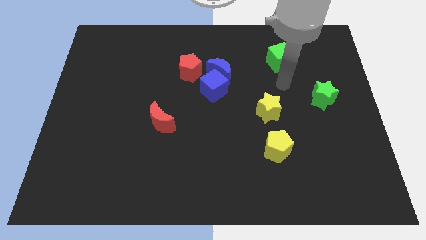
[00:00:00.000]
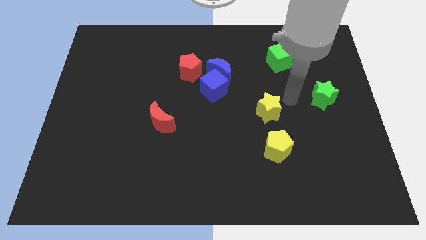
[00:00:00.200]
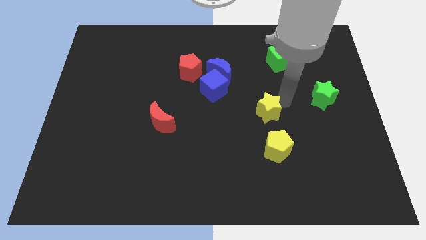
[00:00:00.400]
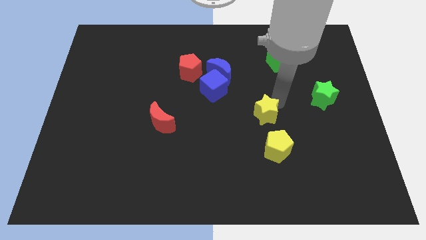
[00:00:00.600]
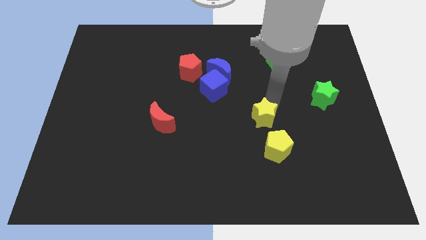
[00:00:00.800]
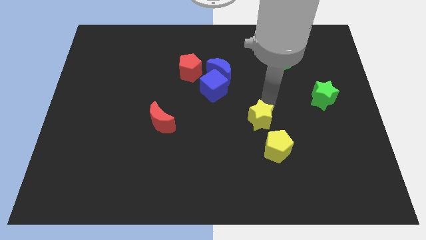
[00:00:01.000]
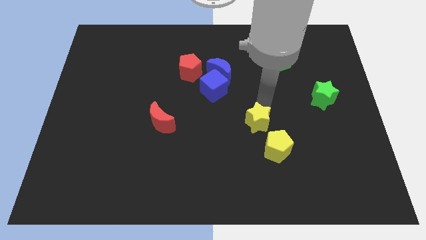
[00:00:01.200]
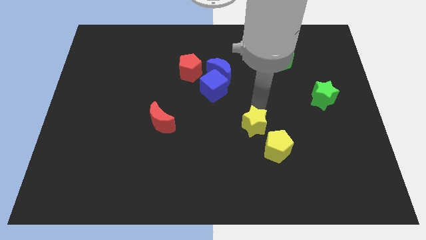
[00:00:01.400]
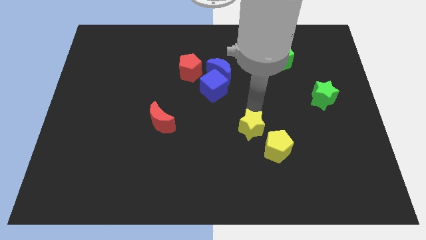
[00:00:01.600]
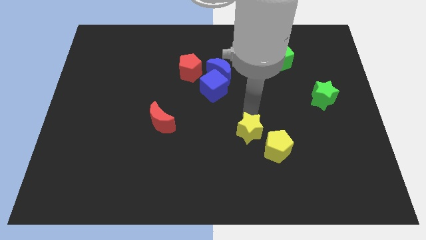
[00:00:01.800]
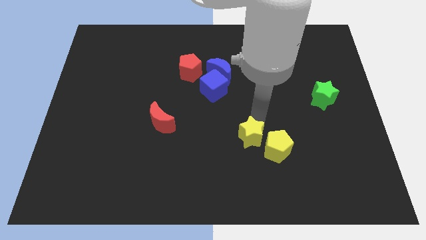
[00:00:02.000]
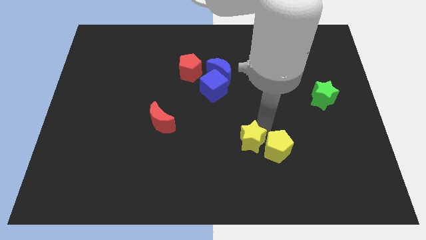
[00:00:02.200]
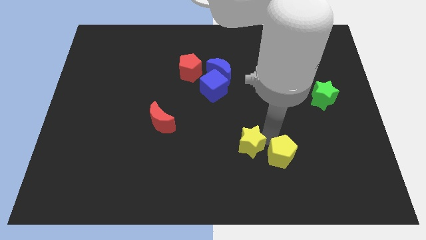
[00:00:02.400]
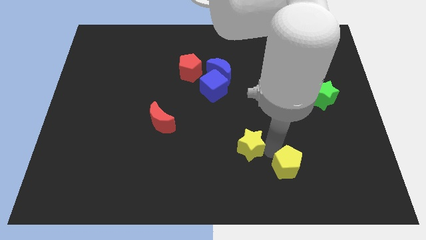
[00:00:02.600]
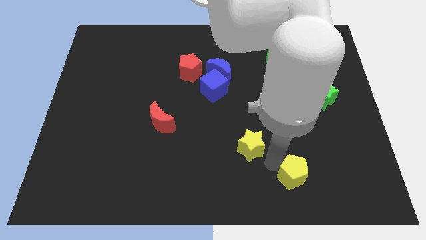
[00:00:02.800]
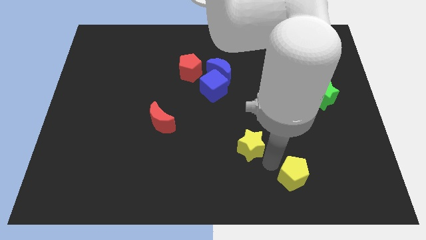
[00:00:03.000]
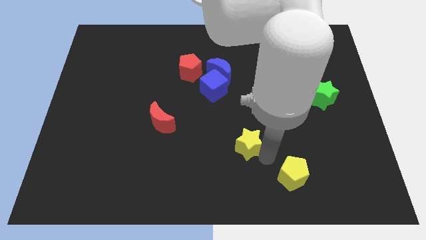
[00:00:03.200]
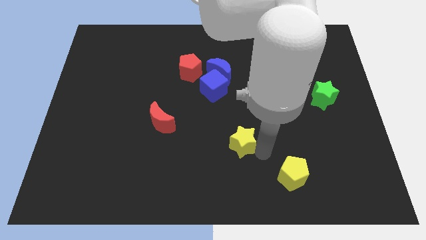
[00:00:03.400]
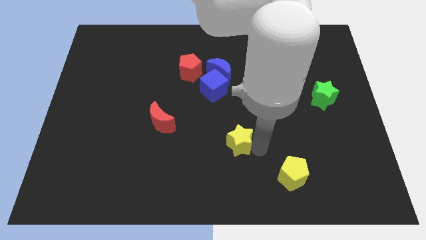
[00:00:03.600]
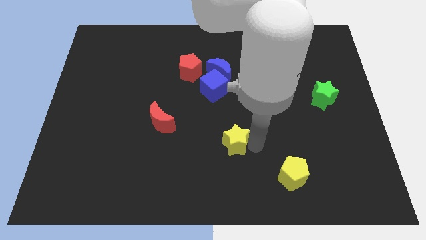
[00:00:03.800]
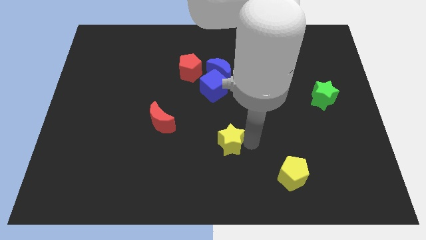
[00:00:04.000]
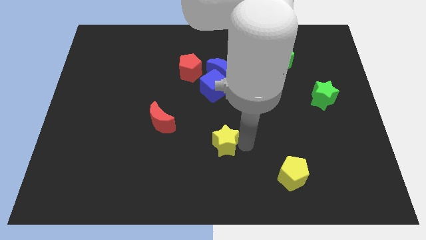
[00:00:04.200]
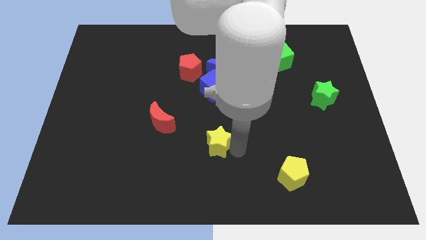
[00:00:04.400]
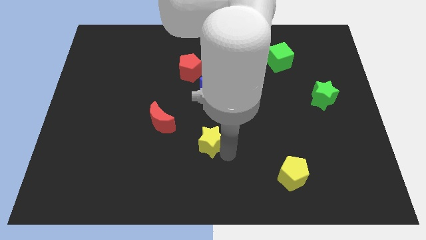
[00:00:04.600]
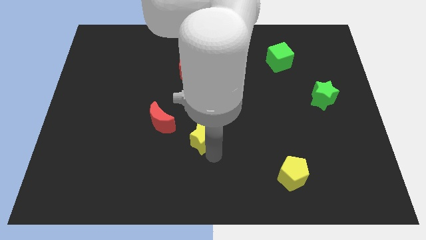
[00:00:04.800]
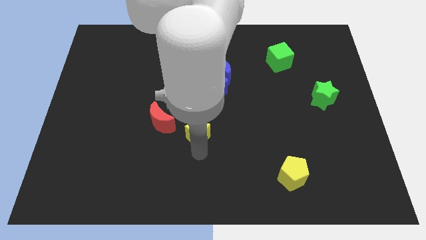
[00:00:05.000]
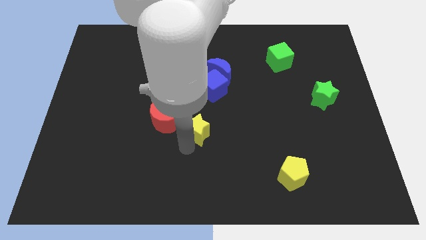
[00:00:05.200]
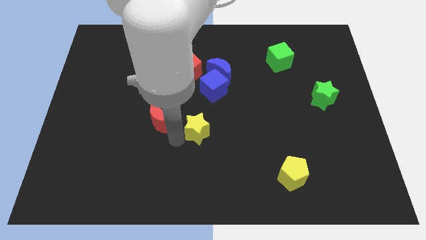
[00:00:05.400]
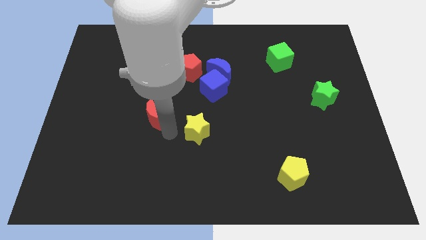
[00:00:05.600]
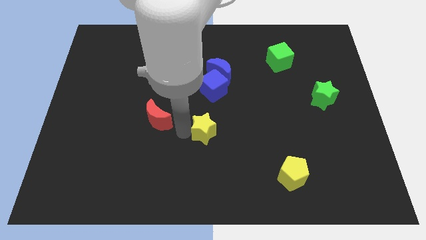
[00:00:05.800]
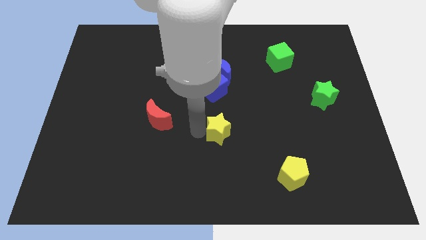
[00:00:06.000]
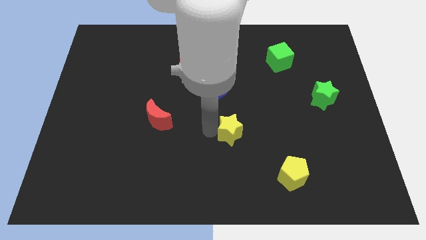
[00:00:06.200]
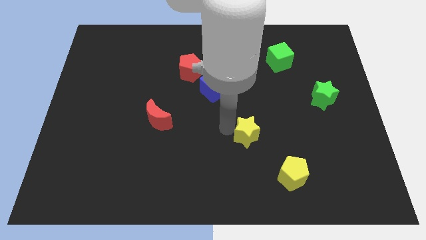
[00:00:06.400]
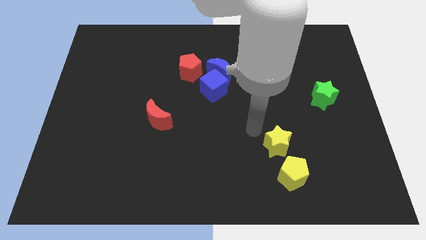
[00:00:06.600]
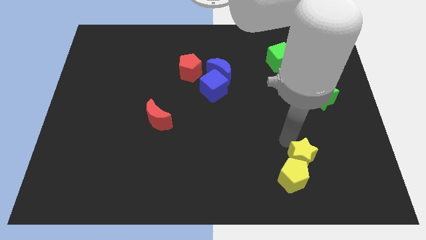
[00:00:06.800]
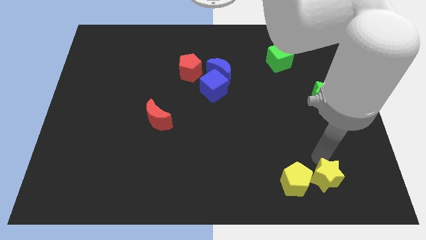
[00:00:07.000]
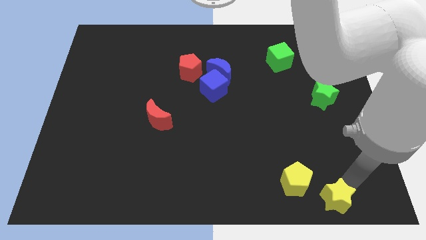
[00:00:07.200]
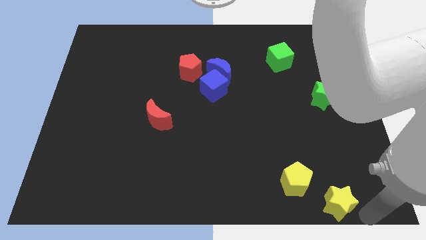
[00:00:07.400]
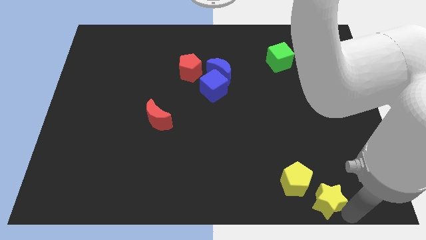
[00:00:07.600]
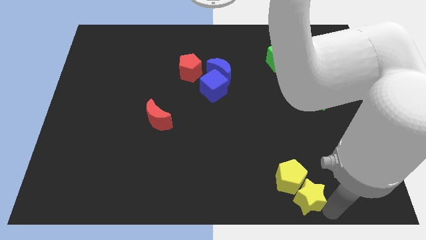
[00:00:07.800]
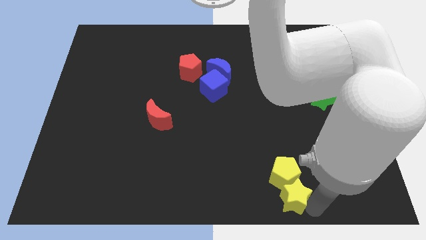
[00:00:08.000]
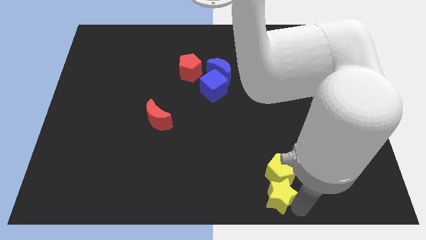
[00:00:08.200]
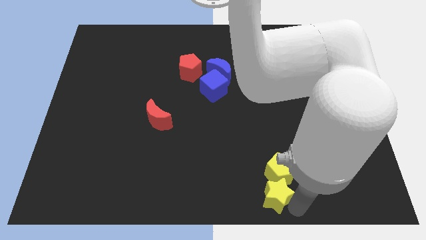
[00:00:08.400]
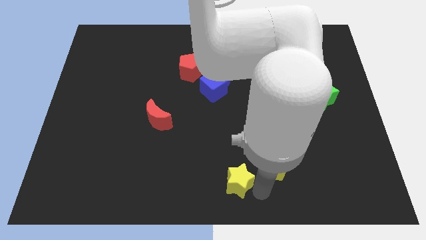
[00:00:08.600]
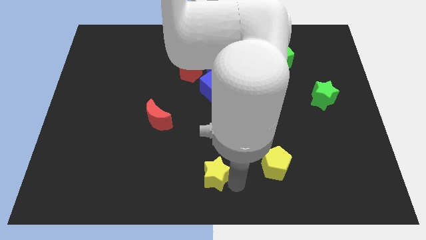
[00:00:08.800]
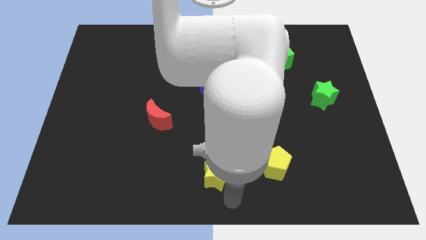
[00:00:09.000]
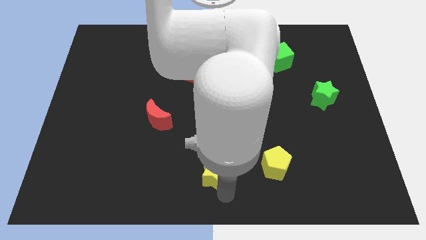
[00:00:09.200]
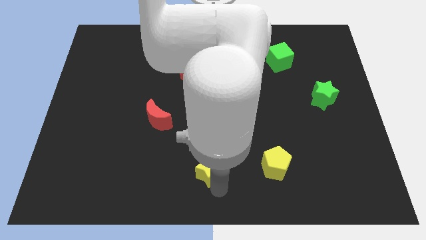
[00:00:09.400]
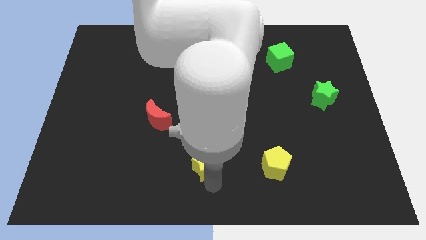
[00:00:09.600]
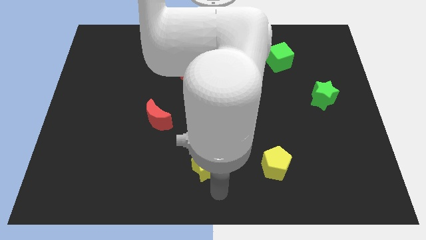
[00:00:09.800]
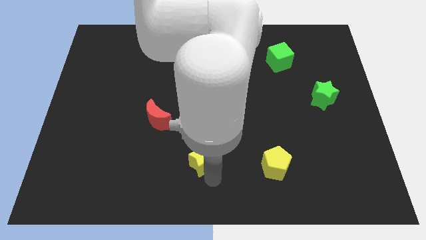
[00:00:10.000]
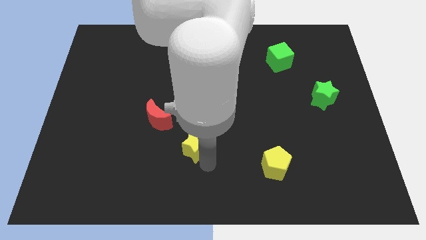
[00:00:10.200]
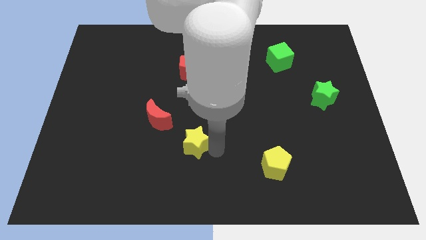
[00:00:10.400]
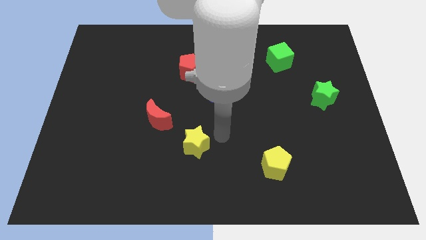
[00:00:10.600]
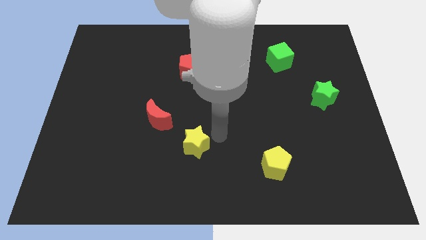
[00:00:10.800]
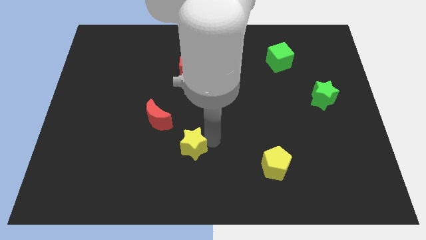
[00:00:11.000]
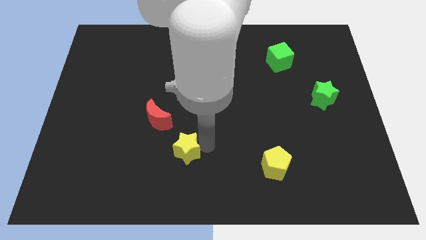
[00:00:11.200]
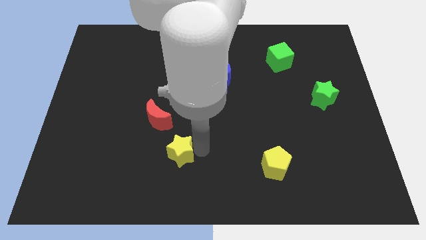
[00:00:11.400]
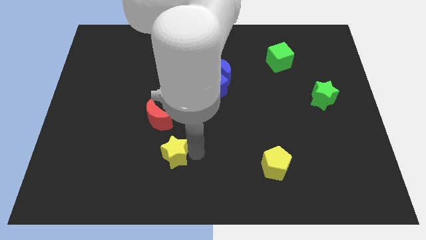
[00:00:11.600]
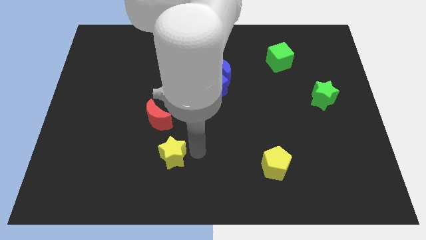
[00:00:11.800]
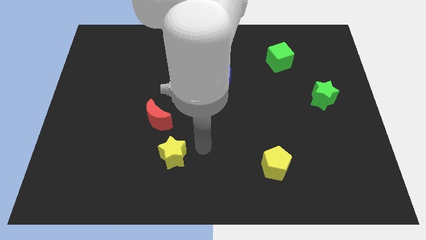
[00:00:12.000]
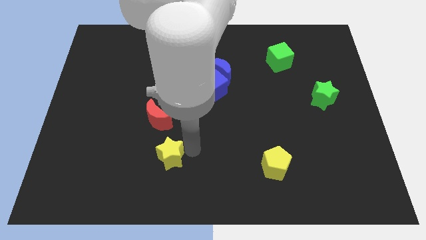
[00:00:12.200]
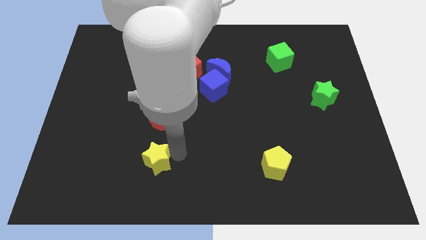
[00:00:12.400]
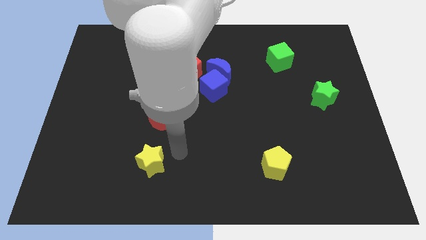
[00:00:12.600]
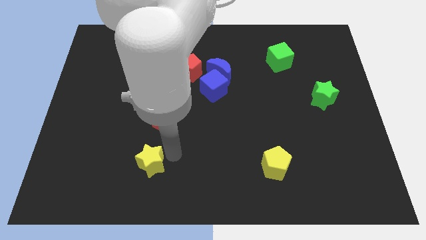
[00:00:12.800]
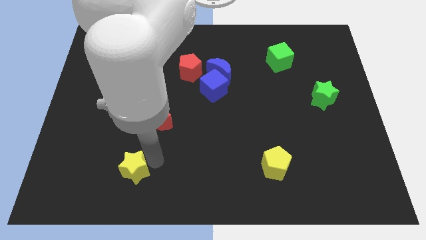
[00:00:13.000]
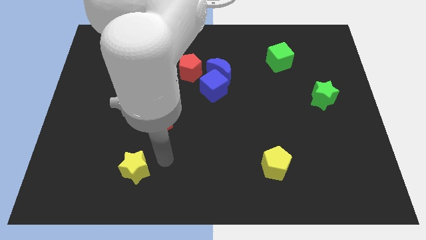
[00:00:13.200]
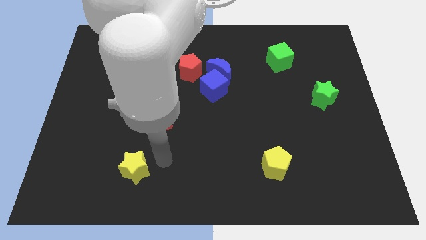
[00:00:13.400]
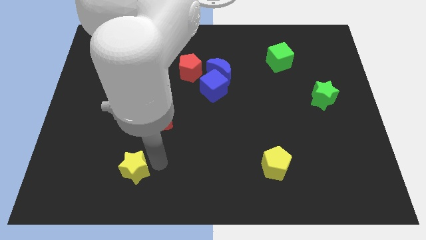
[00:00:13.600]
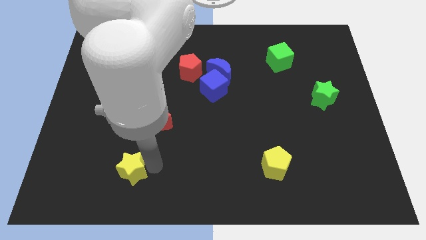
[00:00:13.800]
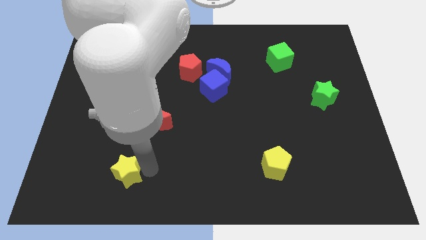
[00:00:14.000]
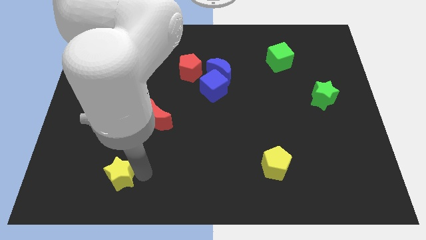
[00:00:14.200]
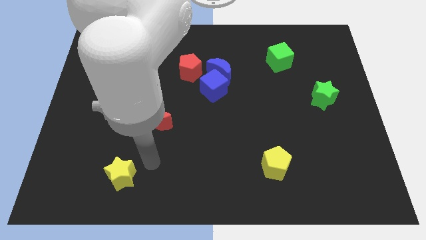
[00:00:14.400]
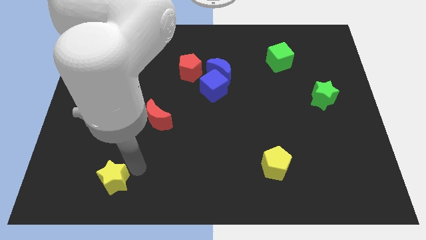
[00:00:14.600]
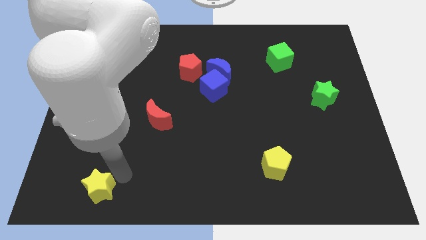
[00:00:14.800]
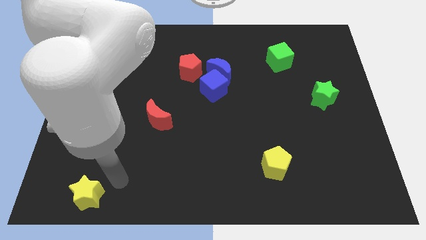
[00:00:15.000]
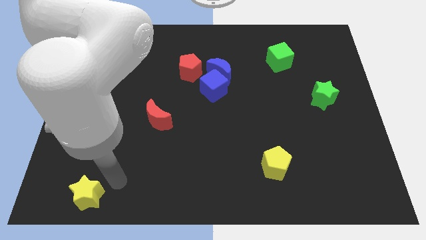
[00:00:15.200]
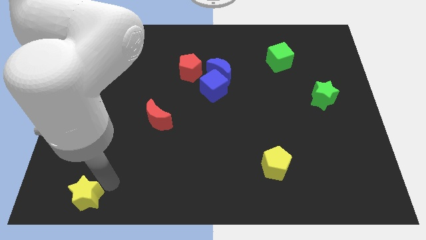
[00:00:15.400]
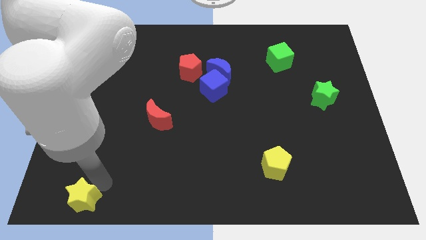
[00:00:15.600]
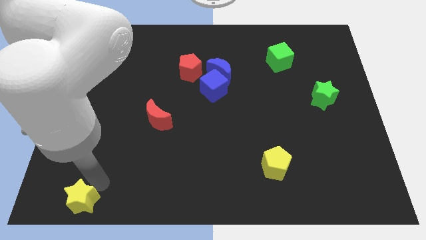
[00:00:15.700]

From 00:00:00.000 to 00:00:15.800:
move the yellow star to the bottom left
